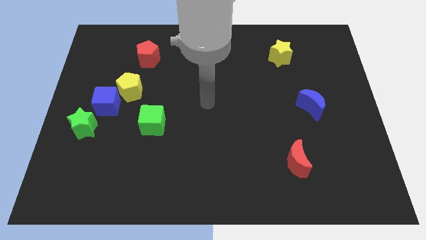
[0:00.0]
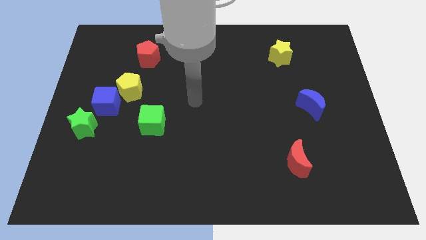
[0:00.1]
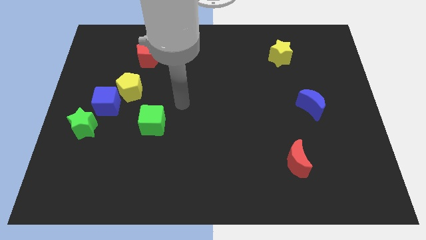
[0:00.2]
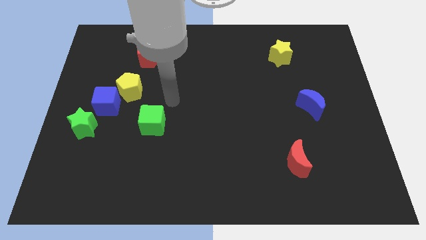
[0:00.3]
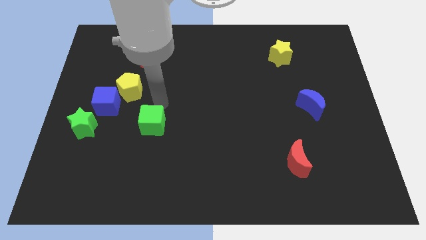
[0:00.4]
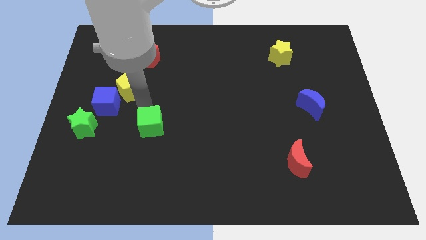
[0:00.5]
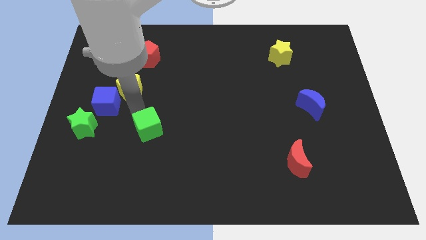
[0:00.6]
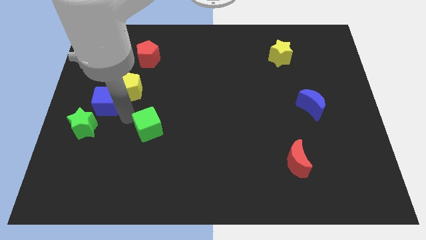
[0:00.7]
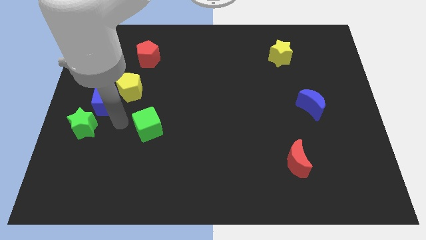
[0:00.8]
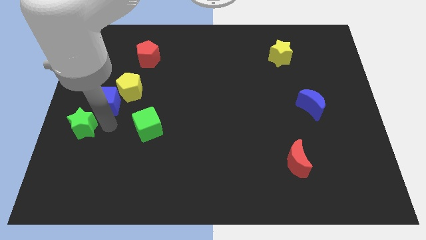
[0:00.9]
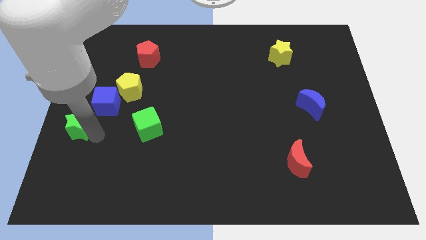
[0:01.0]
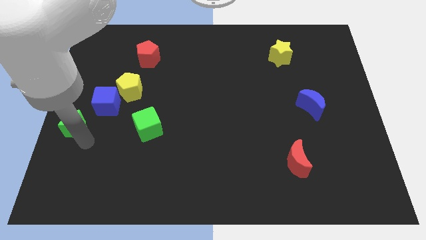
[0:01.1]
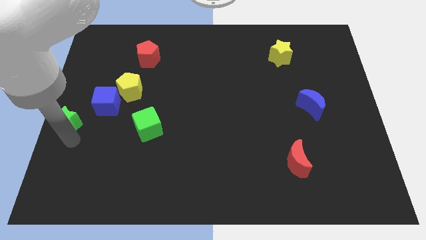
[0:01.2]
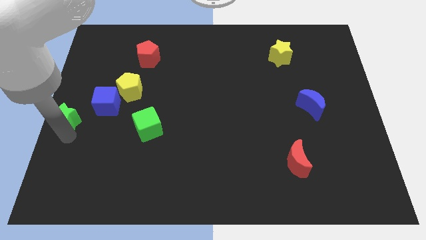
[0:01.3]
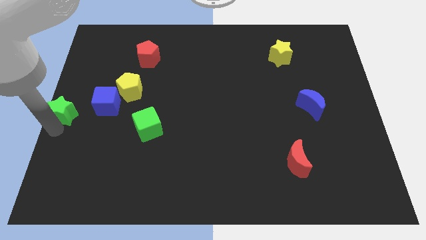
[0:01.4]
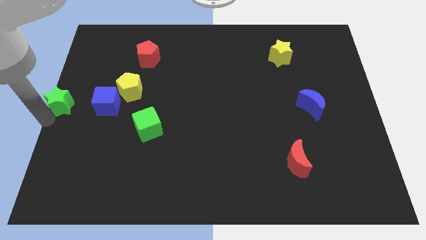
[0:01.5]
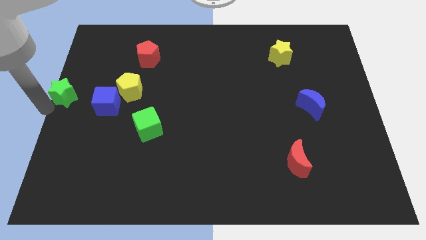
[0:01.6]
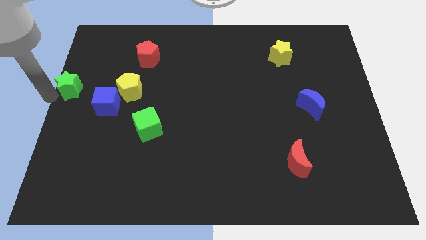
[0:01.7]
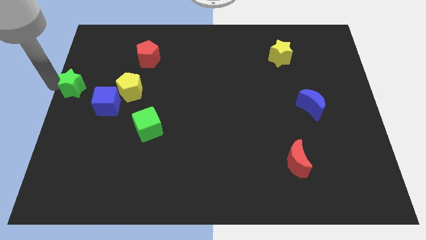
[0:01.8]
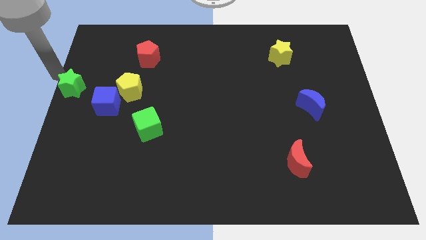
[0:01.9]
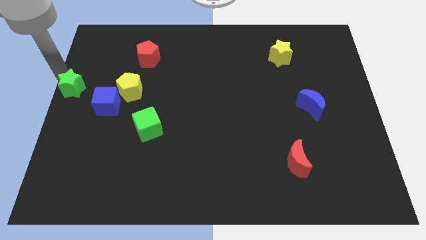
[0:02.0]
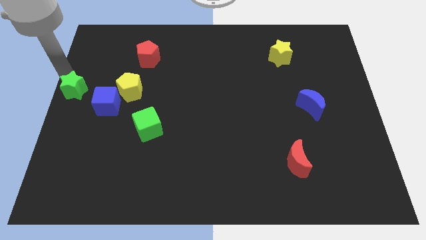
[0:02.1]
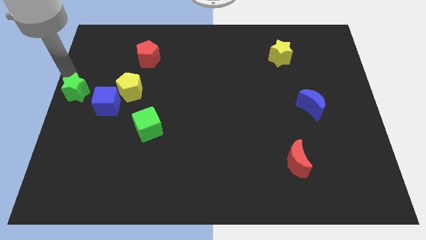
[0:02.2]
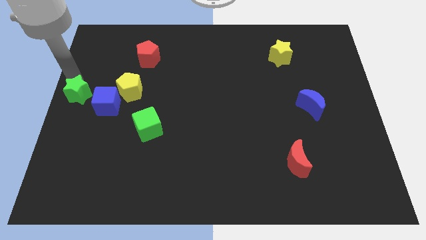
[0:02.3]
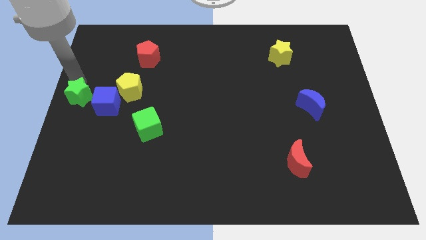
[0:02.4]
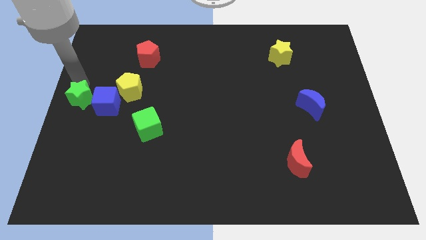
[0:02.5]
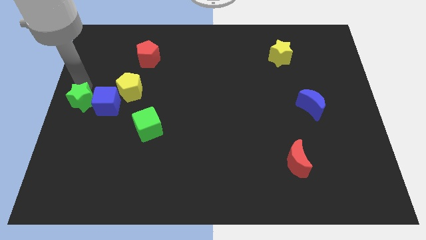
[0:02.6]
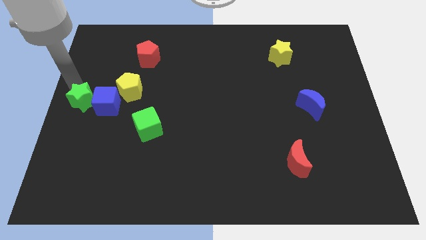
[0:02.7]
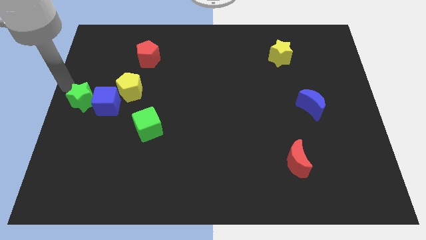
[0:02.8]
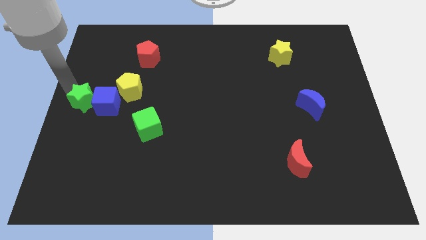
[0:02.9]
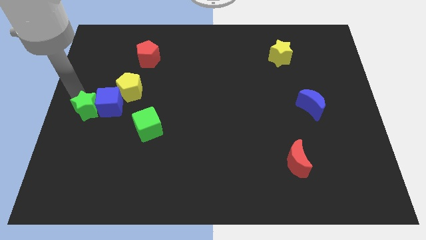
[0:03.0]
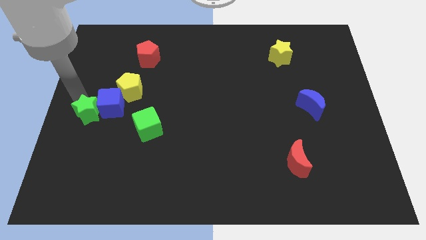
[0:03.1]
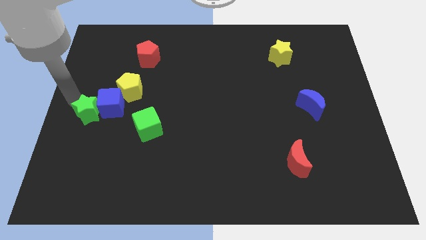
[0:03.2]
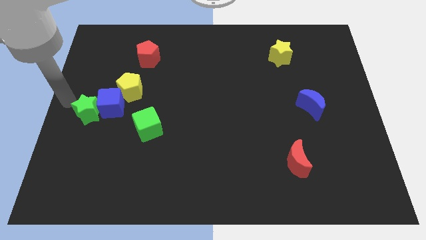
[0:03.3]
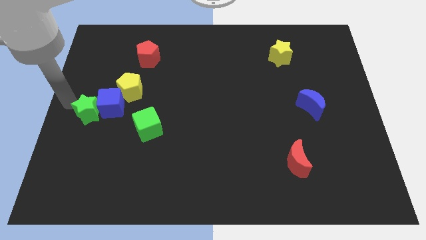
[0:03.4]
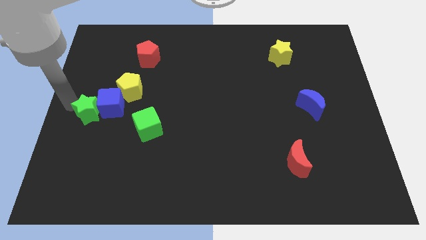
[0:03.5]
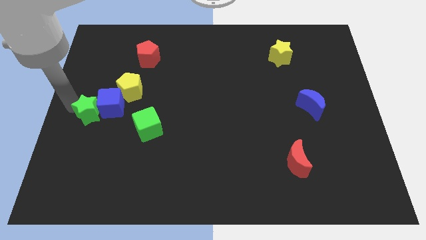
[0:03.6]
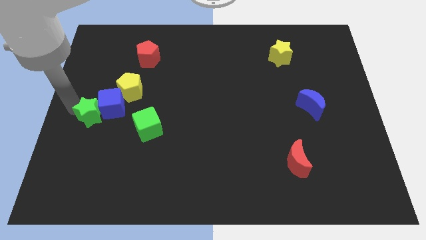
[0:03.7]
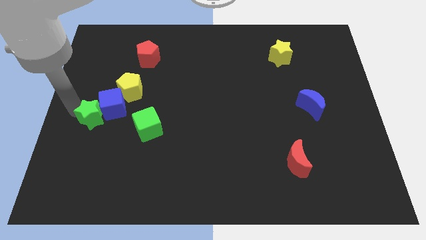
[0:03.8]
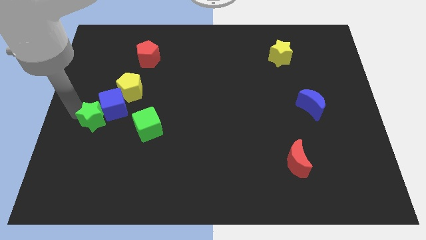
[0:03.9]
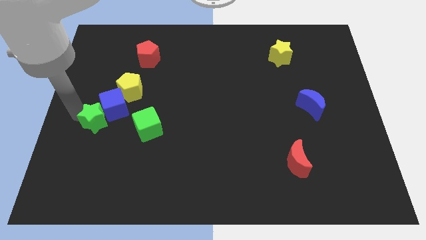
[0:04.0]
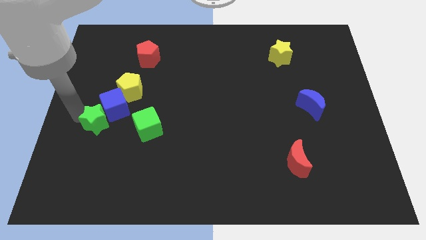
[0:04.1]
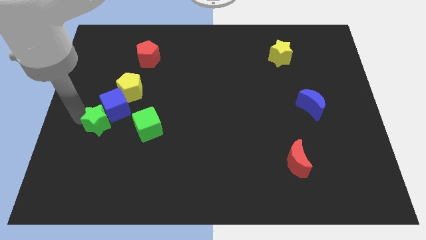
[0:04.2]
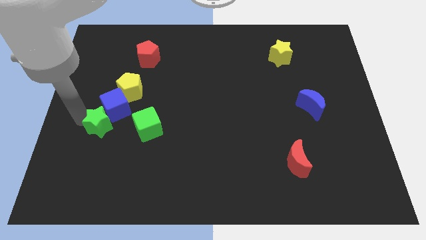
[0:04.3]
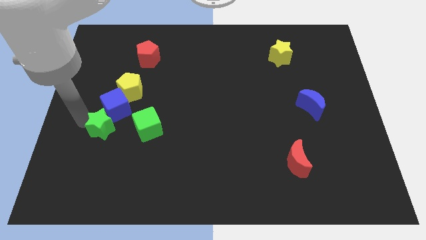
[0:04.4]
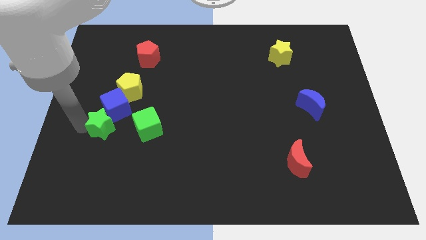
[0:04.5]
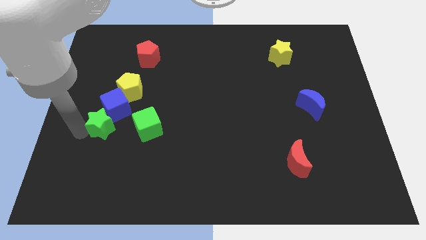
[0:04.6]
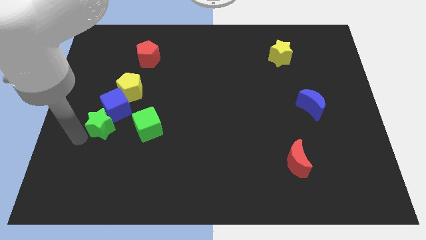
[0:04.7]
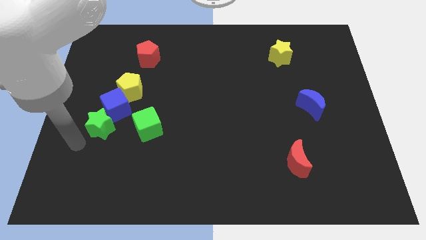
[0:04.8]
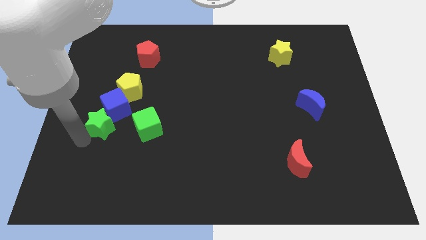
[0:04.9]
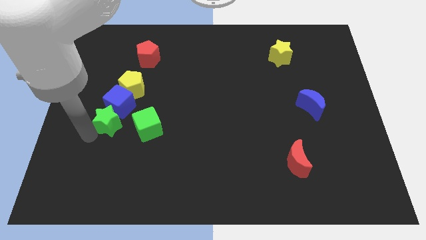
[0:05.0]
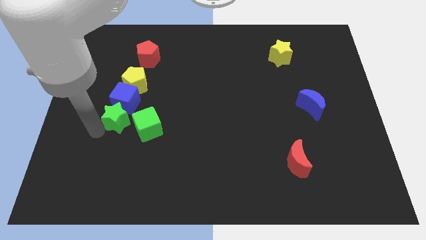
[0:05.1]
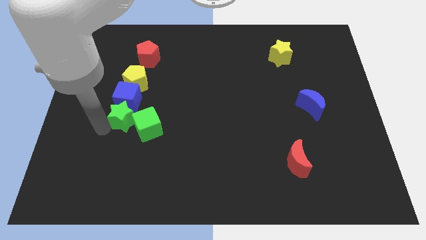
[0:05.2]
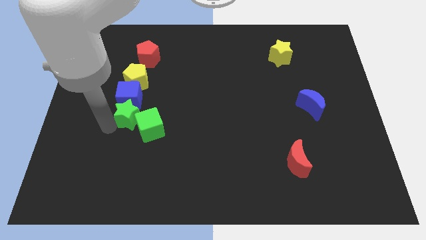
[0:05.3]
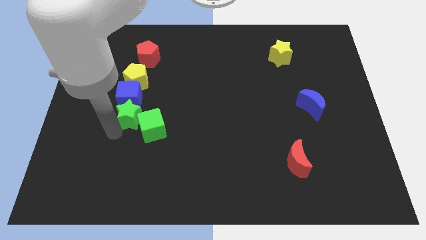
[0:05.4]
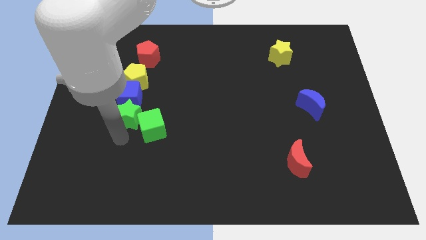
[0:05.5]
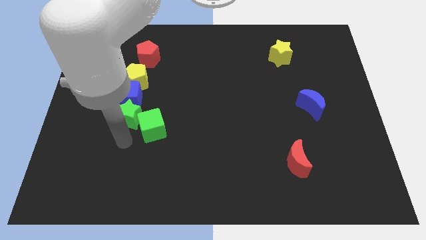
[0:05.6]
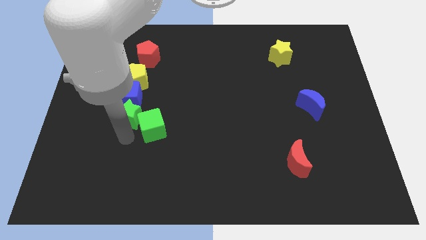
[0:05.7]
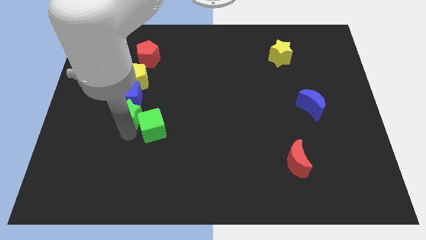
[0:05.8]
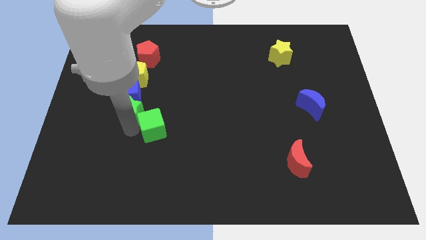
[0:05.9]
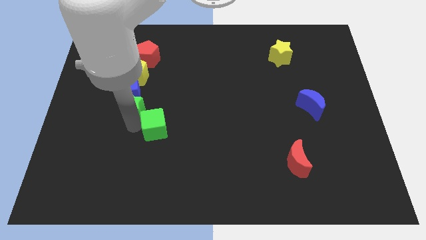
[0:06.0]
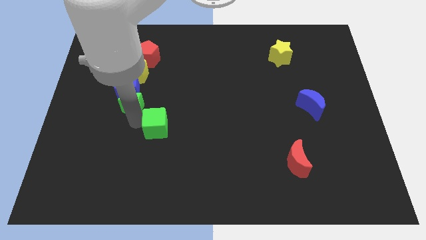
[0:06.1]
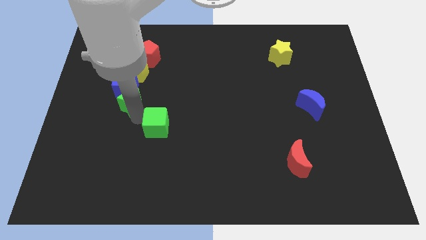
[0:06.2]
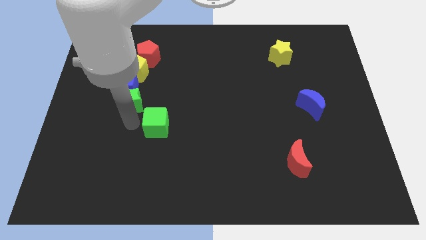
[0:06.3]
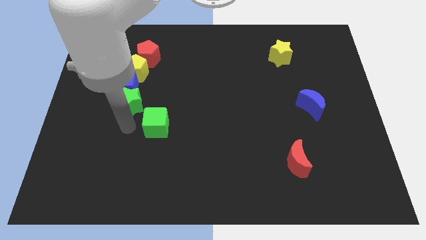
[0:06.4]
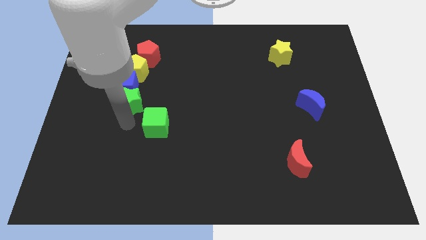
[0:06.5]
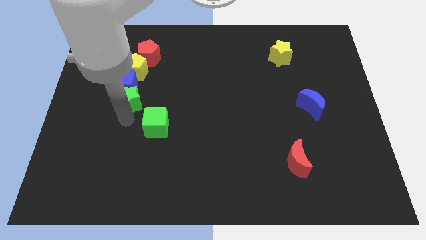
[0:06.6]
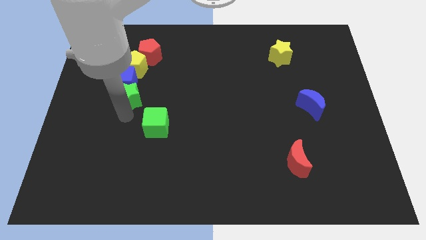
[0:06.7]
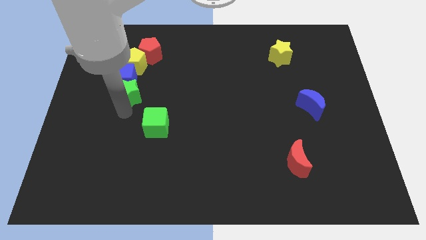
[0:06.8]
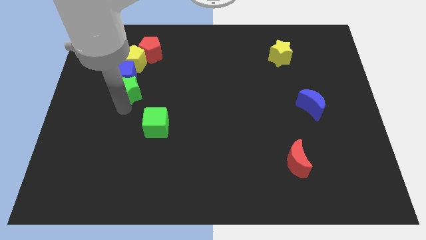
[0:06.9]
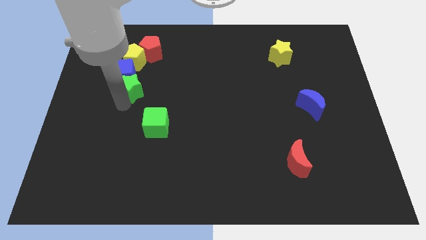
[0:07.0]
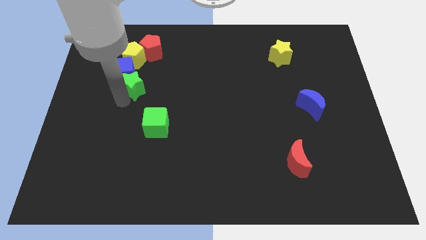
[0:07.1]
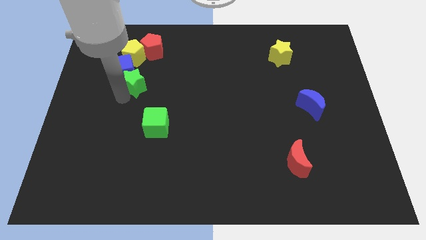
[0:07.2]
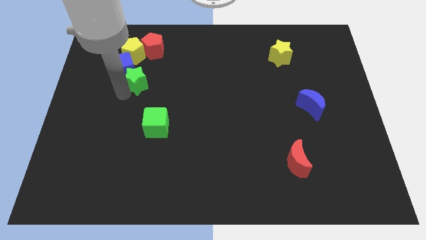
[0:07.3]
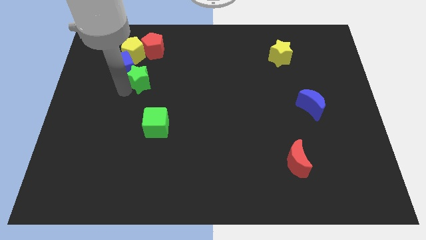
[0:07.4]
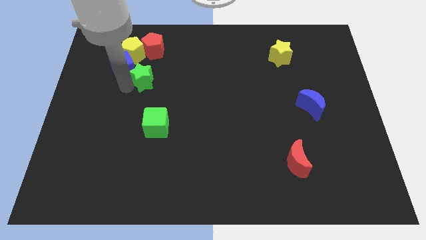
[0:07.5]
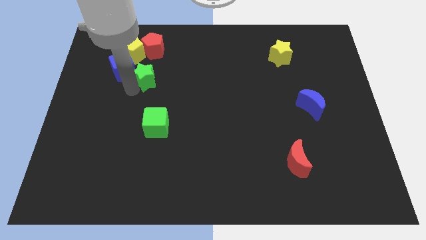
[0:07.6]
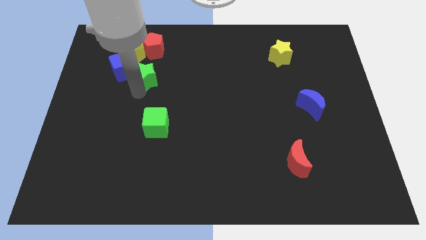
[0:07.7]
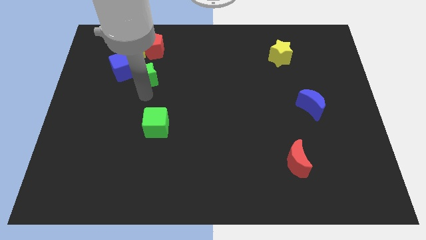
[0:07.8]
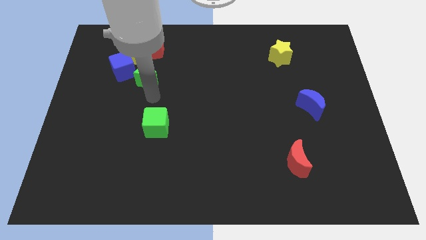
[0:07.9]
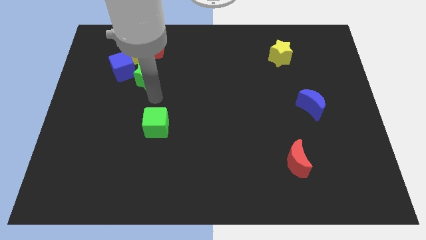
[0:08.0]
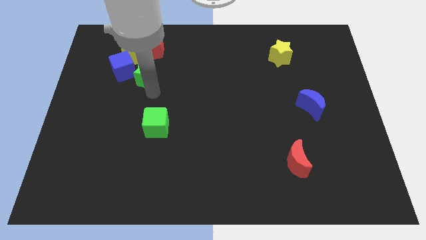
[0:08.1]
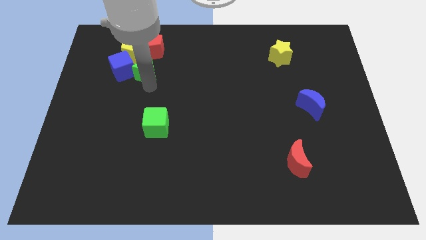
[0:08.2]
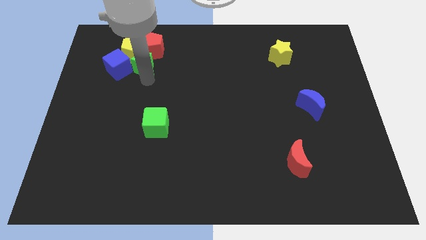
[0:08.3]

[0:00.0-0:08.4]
slide the green star towards the yellow pentagon
